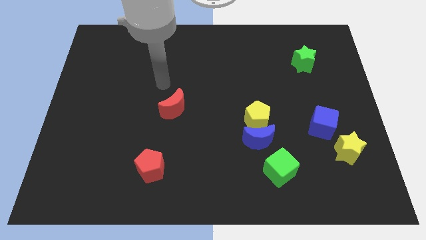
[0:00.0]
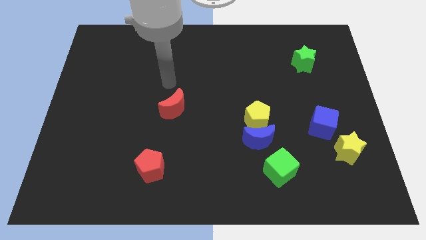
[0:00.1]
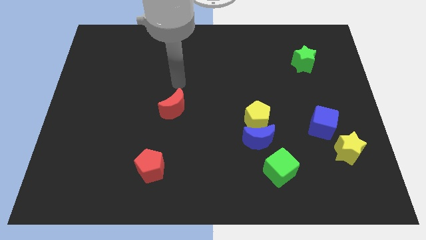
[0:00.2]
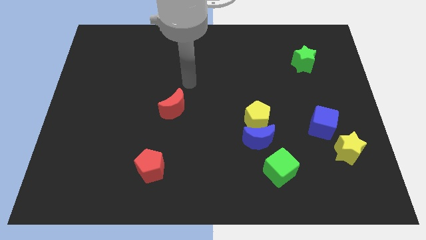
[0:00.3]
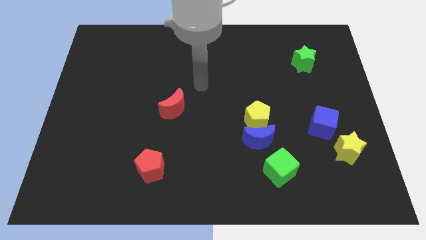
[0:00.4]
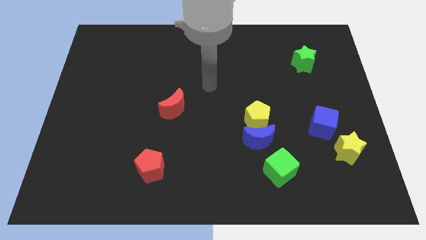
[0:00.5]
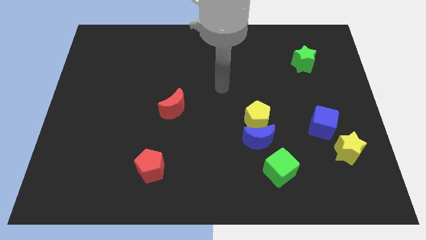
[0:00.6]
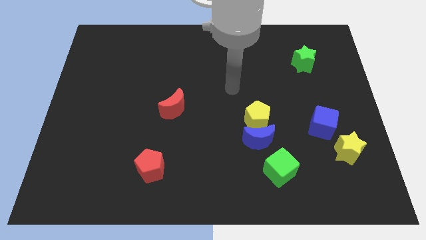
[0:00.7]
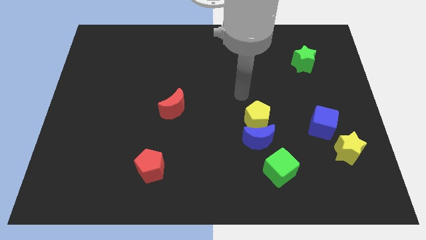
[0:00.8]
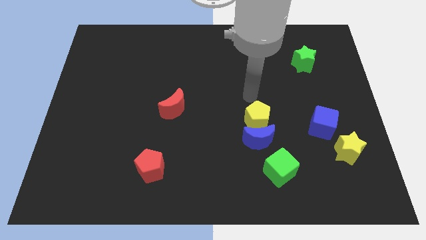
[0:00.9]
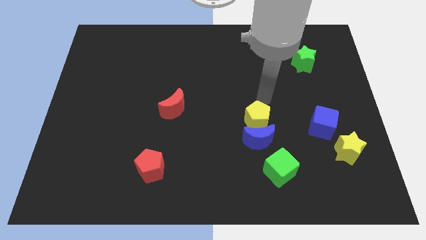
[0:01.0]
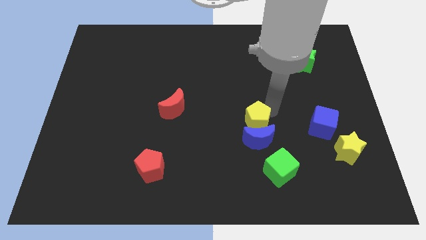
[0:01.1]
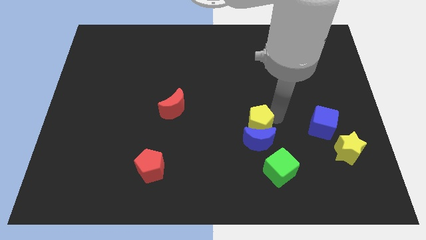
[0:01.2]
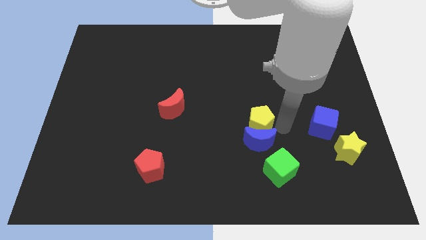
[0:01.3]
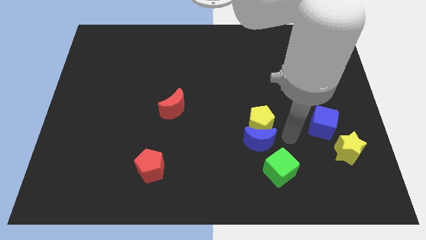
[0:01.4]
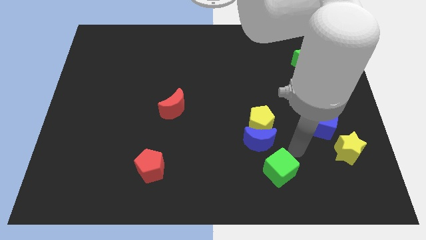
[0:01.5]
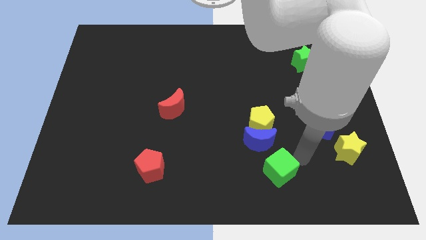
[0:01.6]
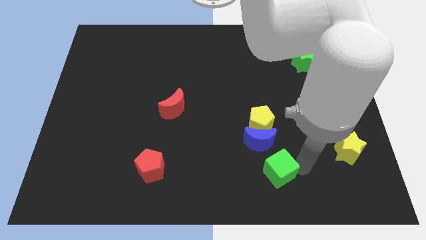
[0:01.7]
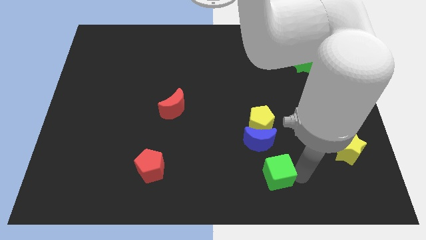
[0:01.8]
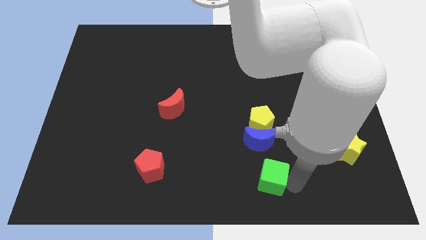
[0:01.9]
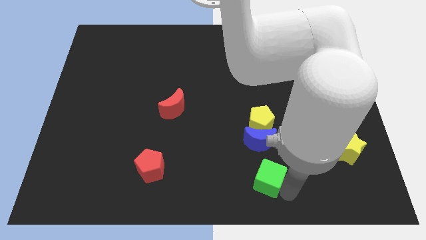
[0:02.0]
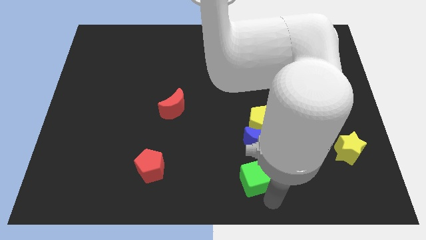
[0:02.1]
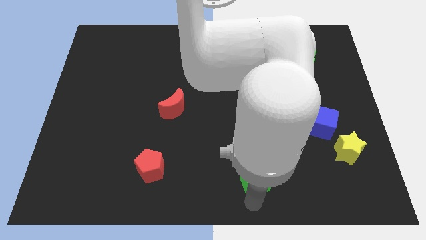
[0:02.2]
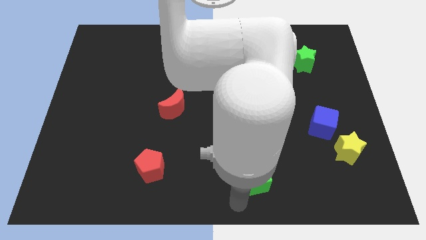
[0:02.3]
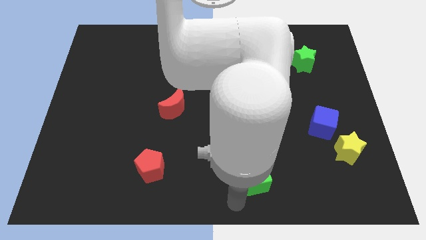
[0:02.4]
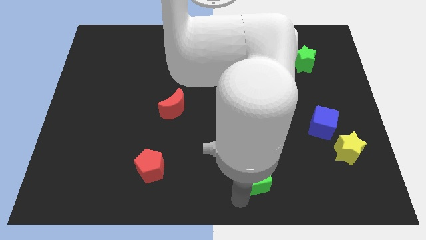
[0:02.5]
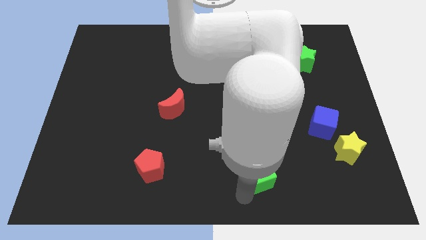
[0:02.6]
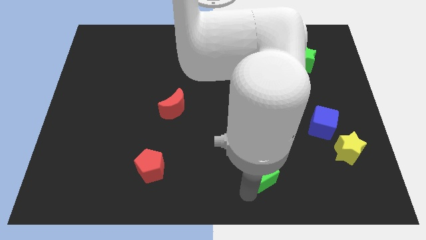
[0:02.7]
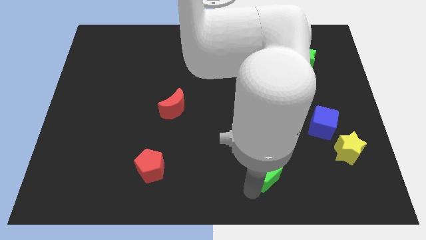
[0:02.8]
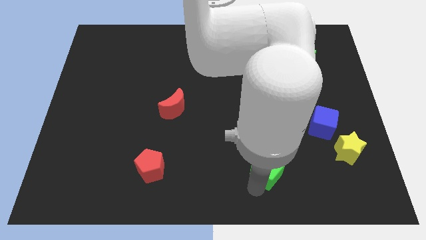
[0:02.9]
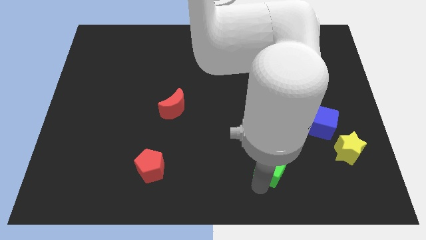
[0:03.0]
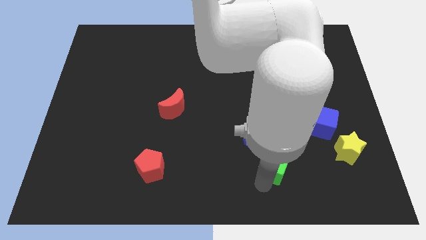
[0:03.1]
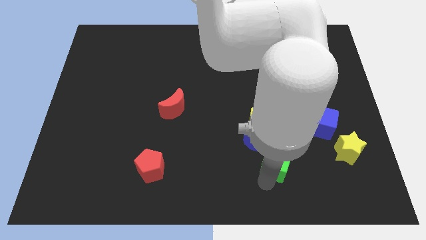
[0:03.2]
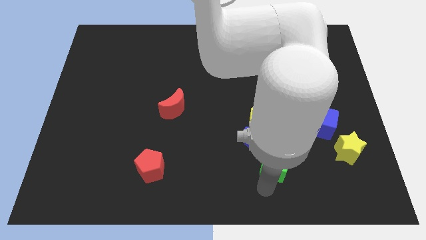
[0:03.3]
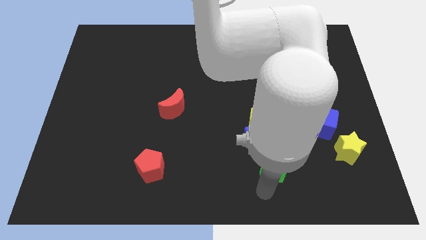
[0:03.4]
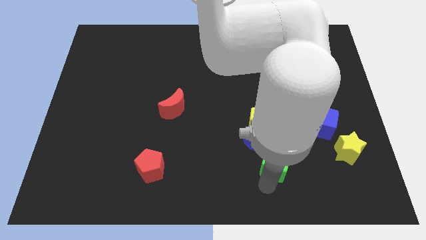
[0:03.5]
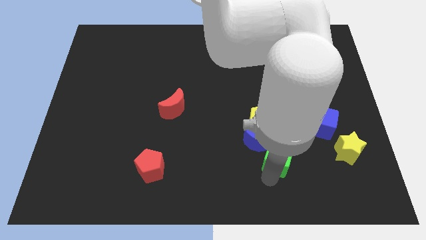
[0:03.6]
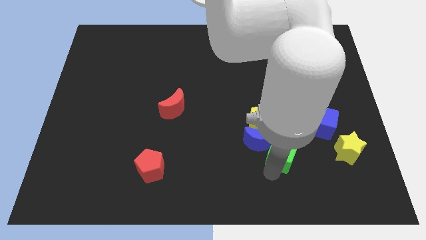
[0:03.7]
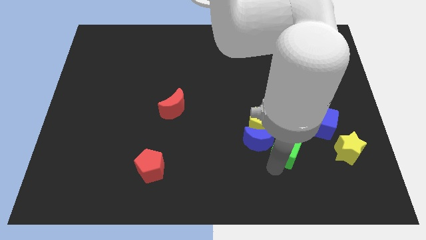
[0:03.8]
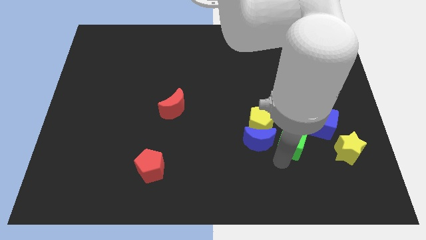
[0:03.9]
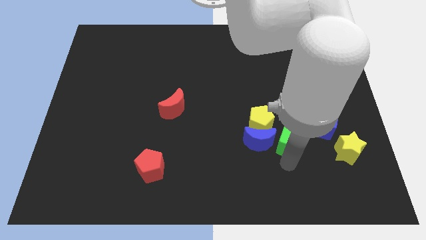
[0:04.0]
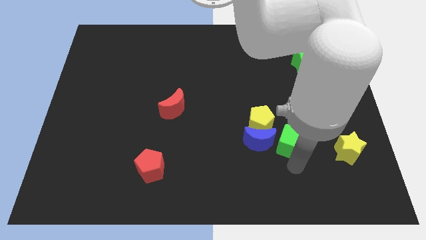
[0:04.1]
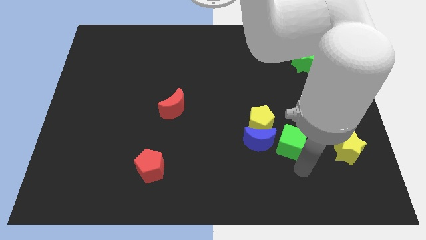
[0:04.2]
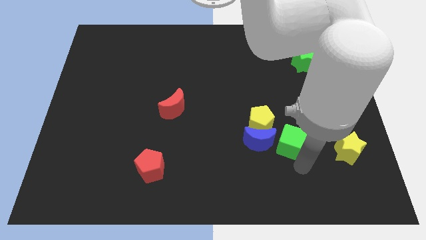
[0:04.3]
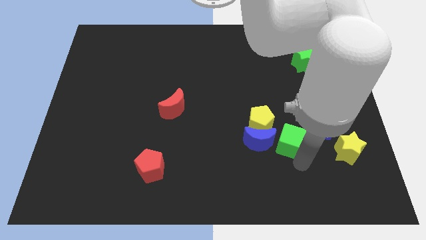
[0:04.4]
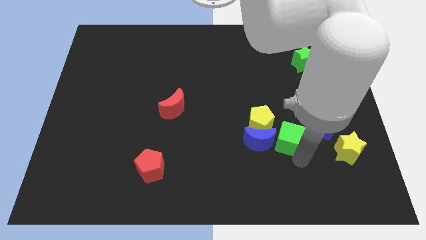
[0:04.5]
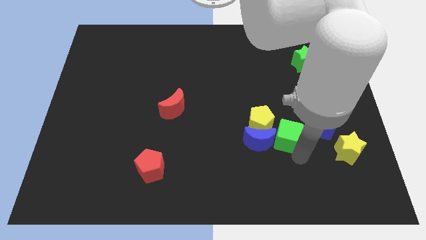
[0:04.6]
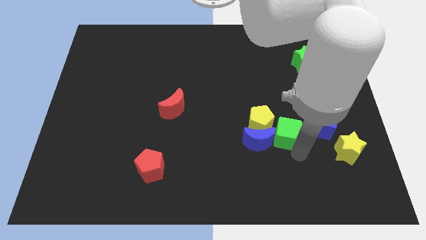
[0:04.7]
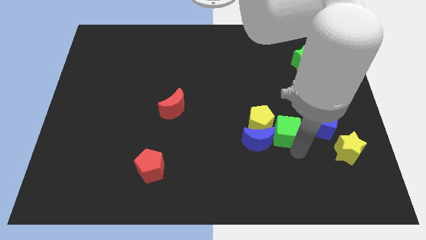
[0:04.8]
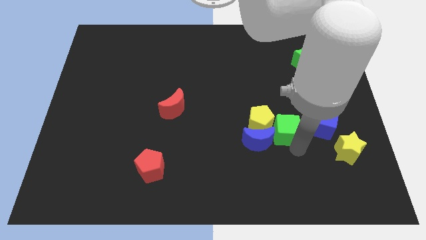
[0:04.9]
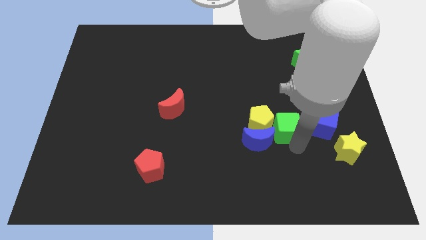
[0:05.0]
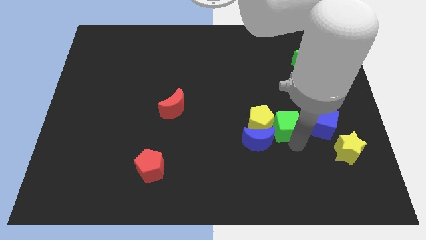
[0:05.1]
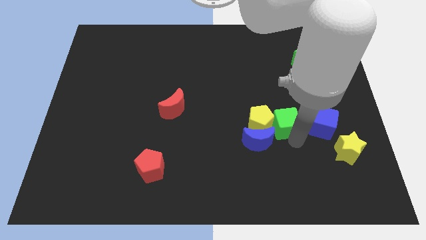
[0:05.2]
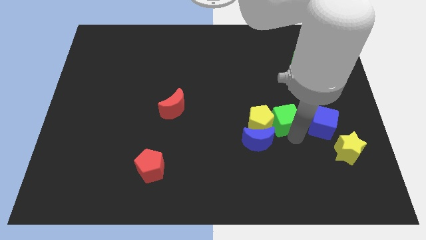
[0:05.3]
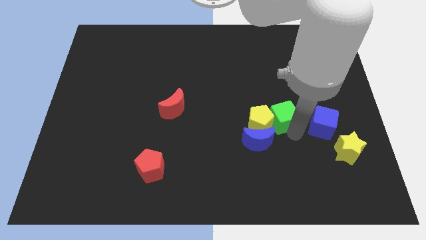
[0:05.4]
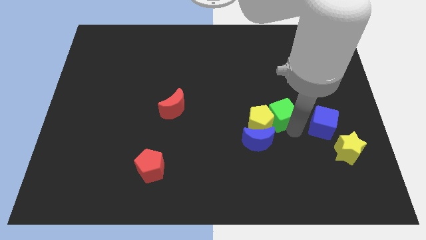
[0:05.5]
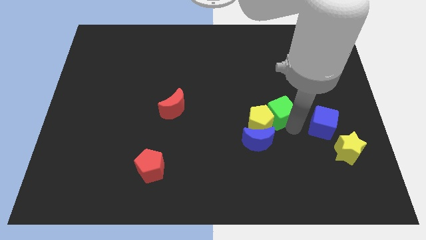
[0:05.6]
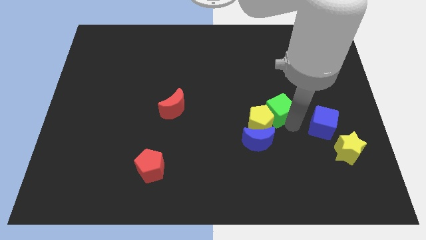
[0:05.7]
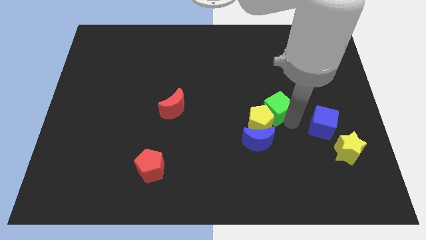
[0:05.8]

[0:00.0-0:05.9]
slide the green cube to the top side of the blue moon

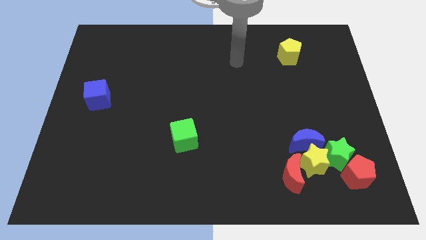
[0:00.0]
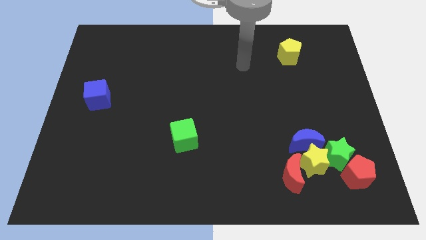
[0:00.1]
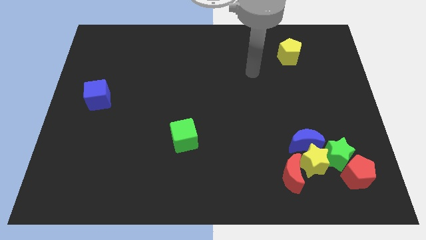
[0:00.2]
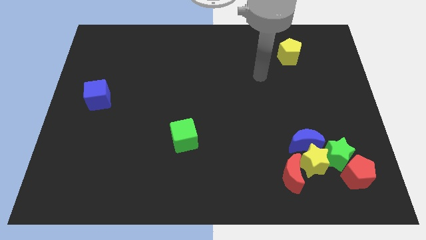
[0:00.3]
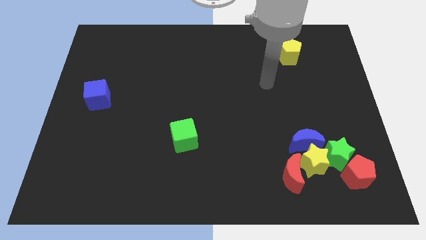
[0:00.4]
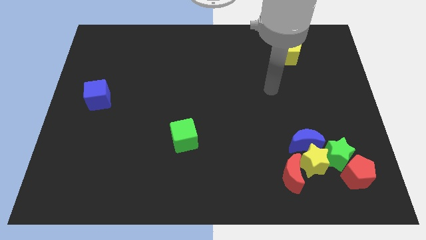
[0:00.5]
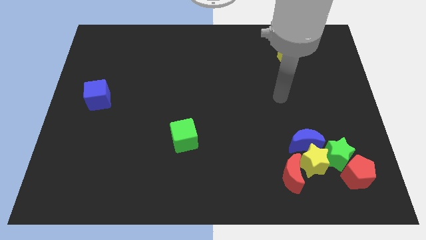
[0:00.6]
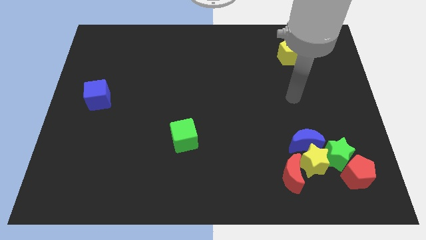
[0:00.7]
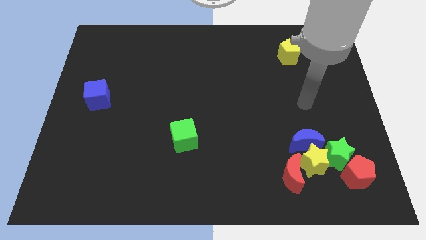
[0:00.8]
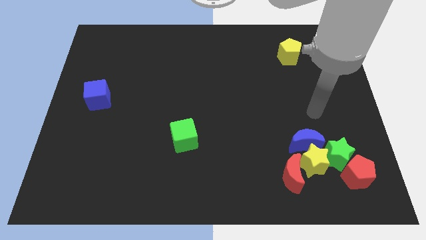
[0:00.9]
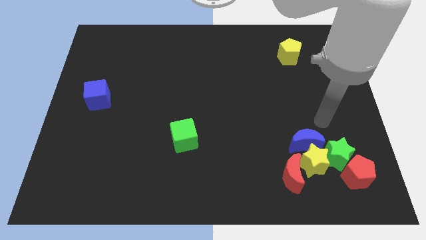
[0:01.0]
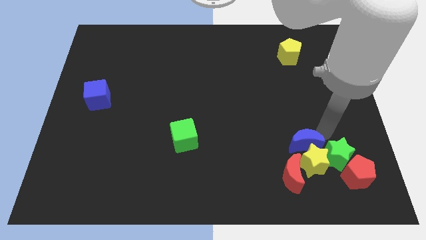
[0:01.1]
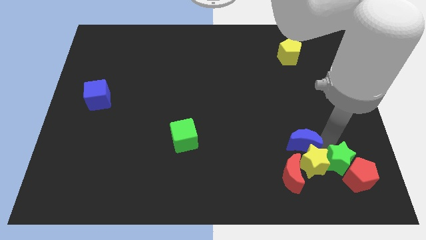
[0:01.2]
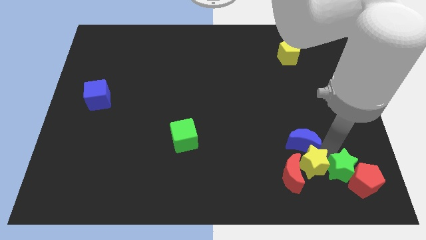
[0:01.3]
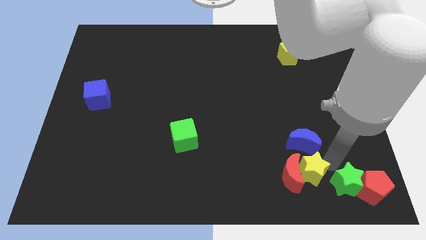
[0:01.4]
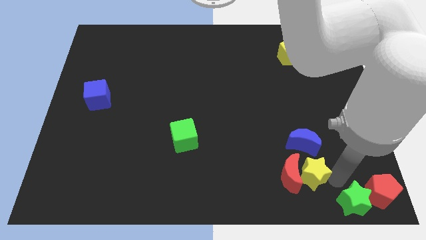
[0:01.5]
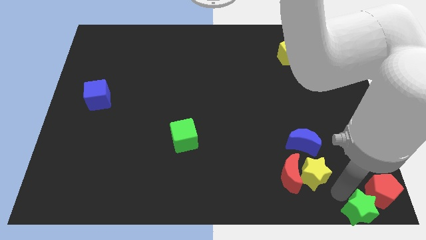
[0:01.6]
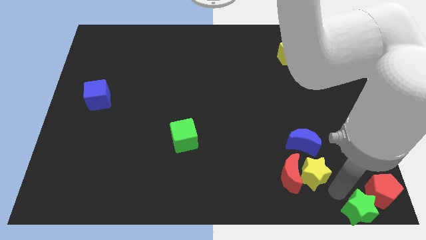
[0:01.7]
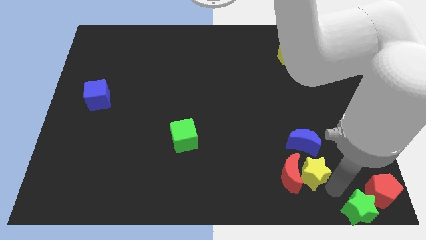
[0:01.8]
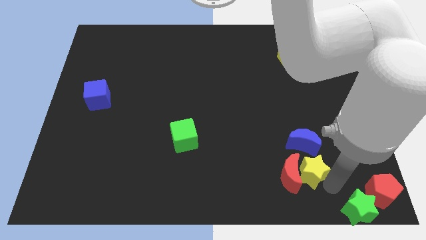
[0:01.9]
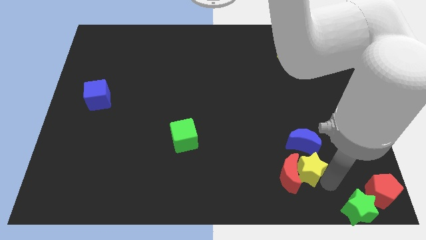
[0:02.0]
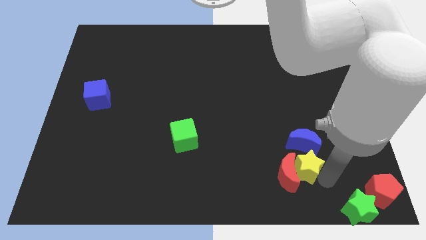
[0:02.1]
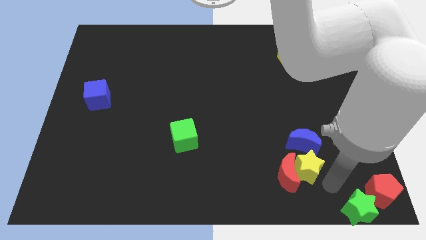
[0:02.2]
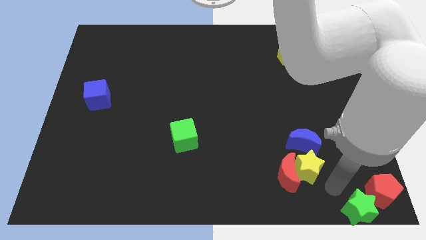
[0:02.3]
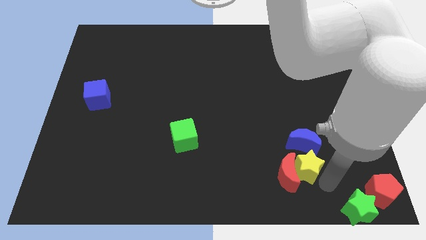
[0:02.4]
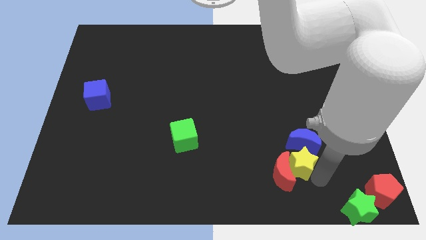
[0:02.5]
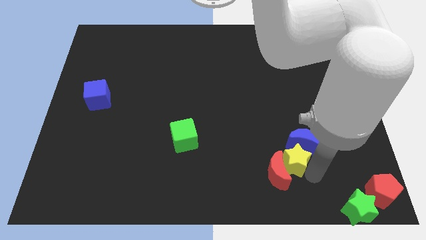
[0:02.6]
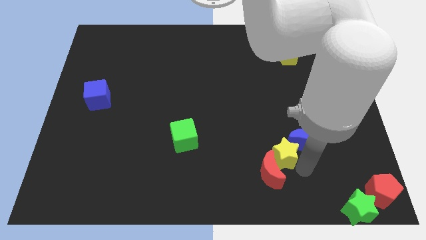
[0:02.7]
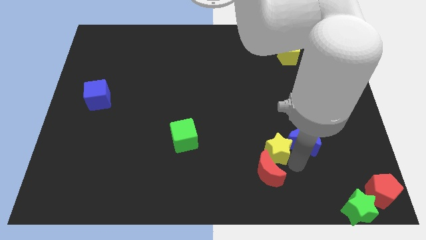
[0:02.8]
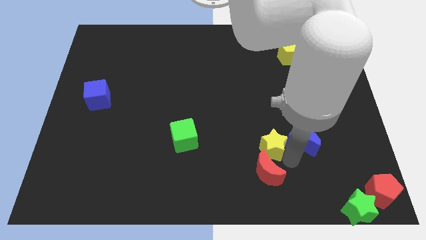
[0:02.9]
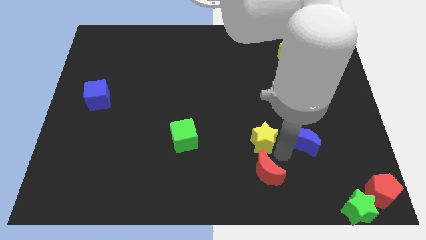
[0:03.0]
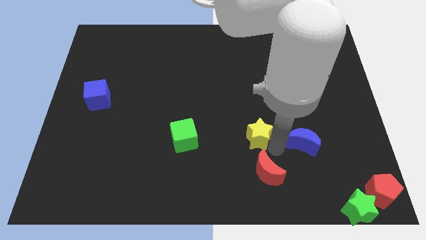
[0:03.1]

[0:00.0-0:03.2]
slide the yellow star just right of the green cube
